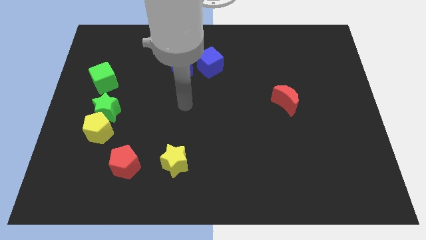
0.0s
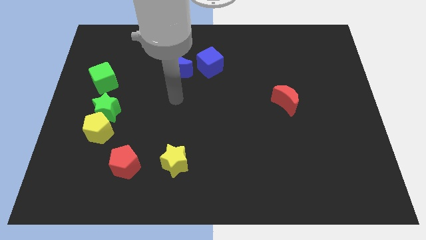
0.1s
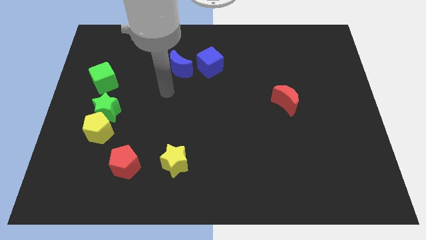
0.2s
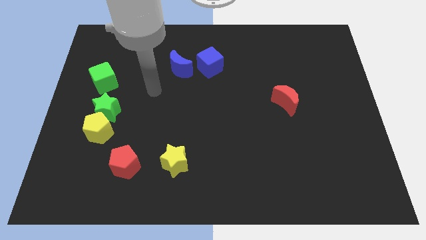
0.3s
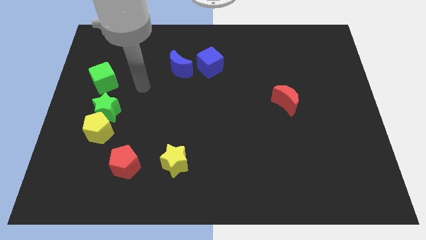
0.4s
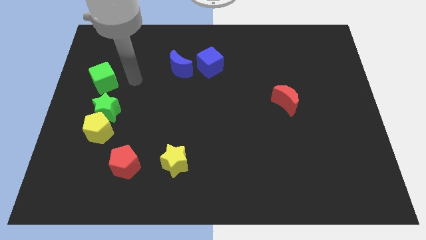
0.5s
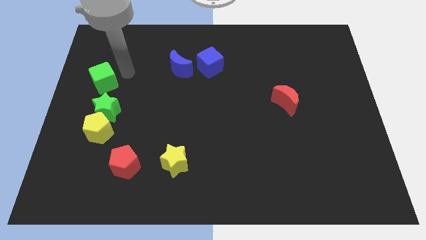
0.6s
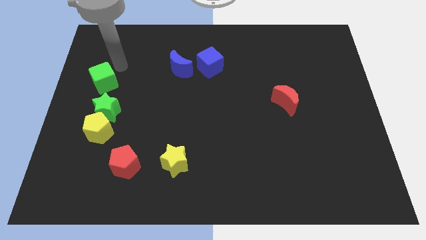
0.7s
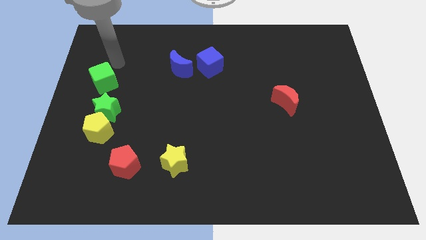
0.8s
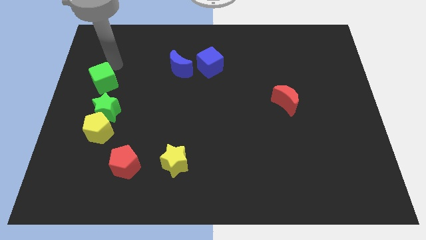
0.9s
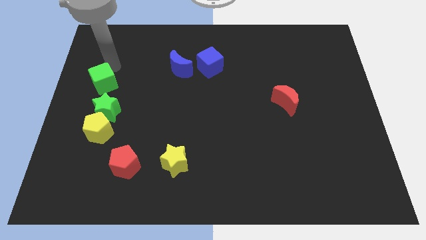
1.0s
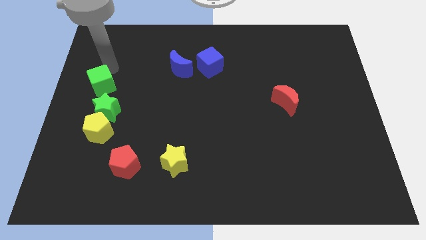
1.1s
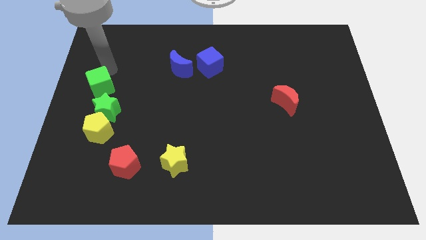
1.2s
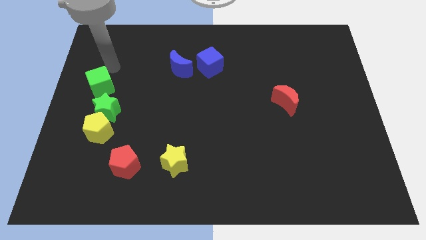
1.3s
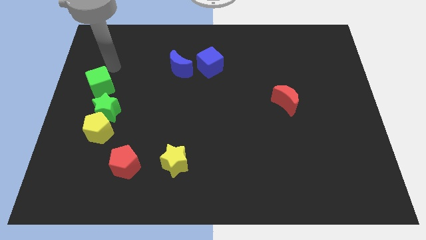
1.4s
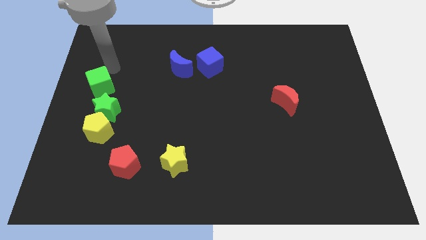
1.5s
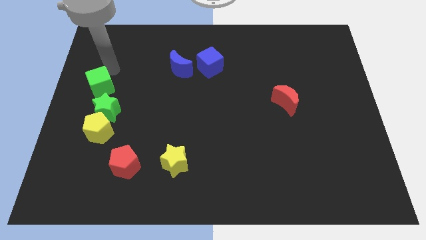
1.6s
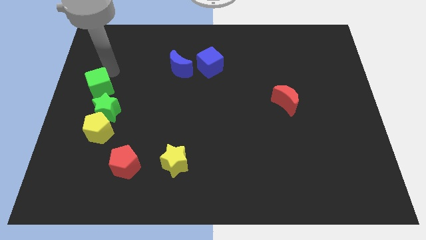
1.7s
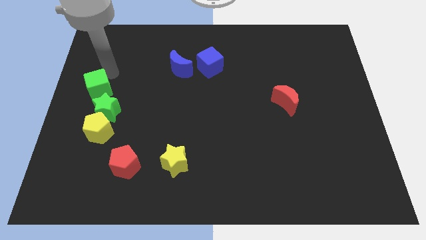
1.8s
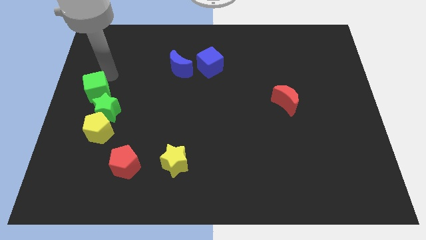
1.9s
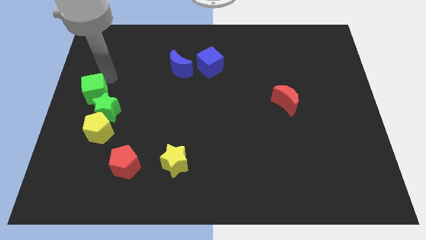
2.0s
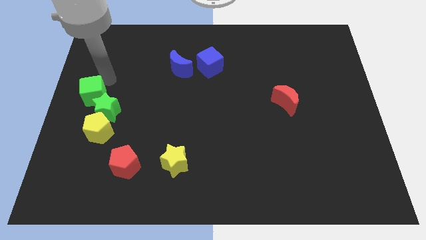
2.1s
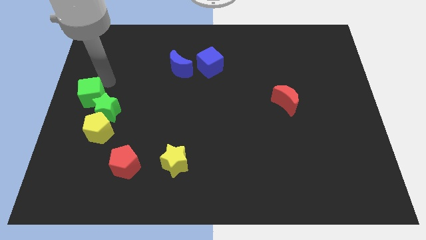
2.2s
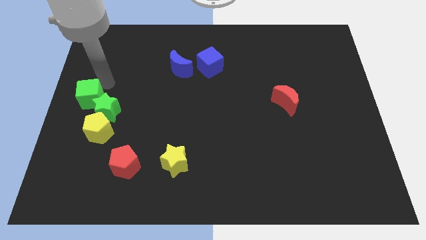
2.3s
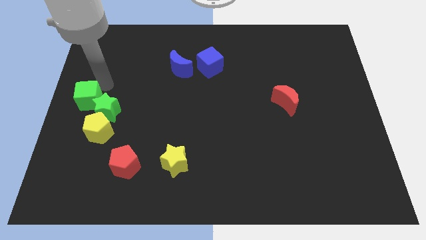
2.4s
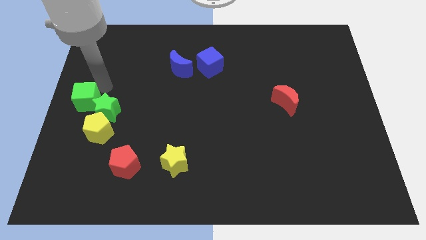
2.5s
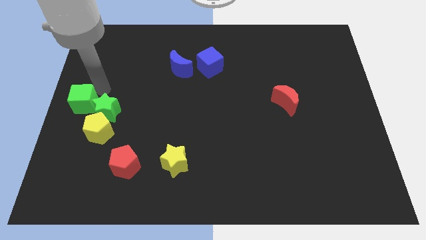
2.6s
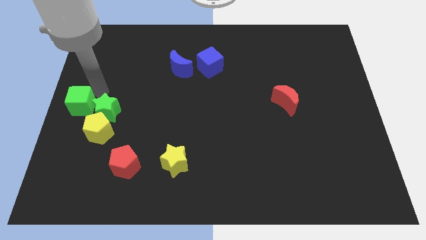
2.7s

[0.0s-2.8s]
slightly move the green cube down

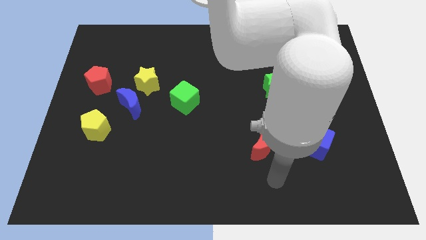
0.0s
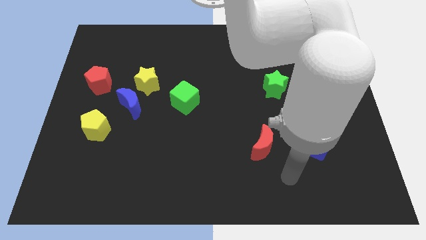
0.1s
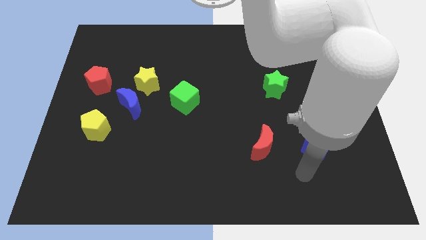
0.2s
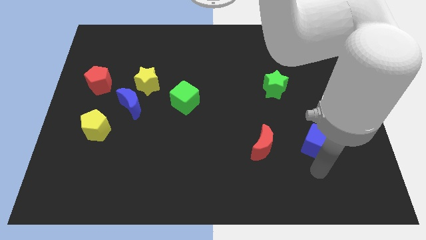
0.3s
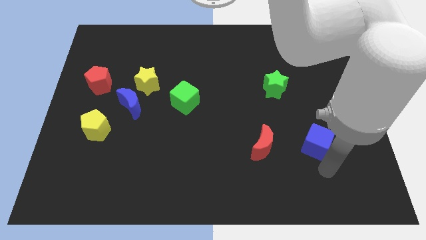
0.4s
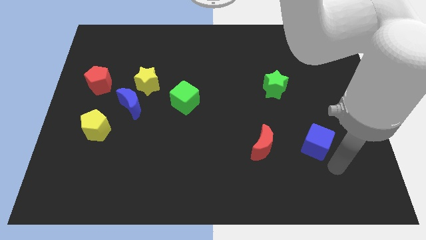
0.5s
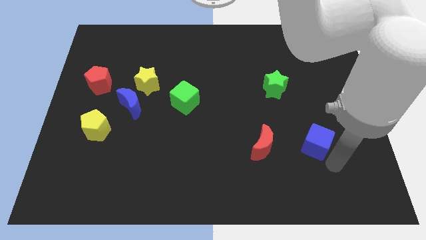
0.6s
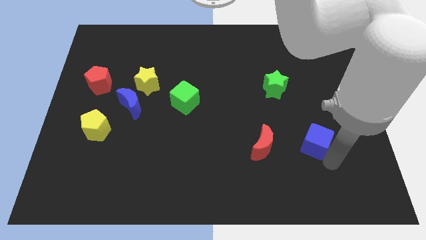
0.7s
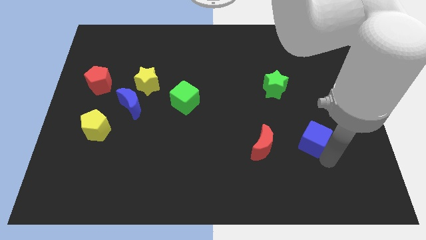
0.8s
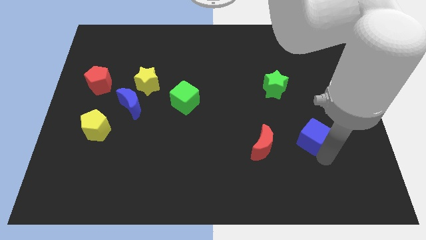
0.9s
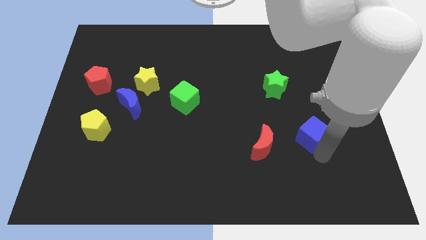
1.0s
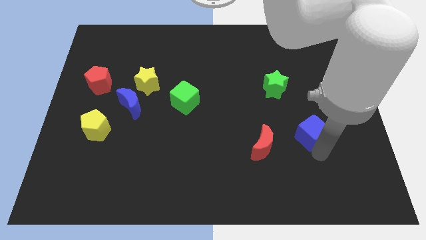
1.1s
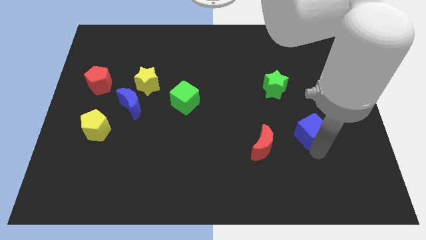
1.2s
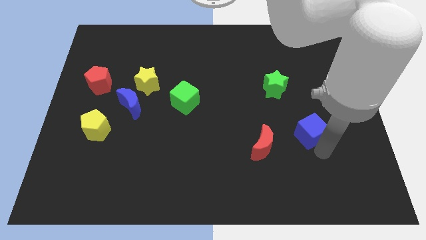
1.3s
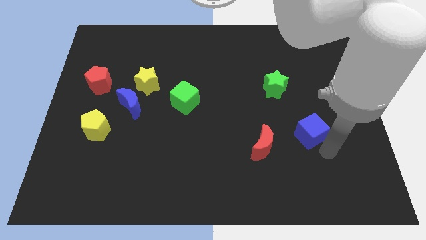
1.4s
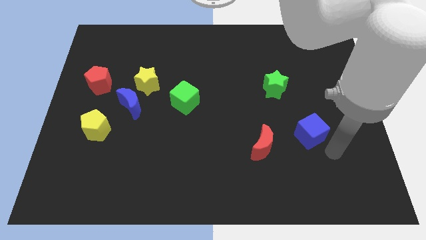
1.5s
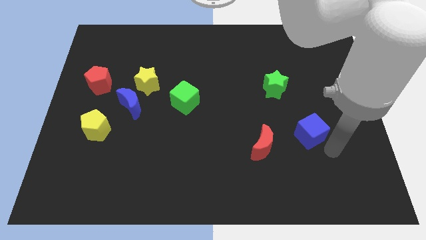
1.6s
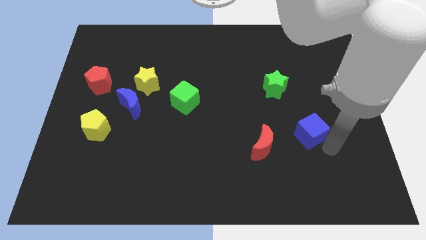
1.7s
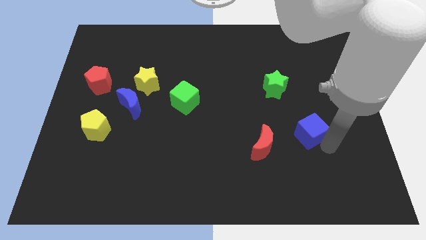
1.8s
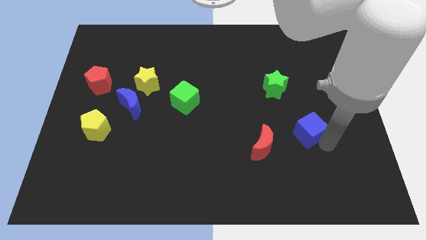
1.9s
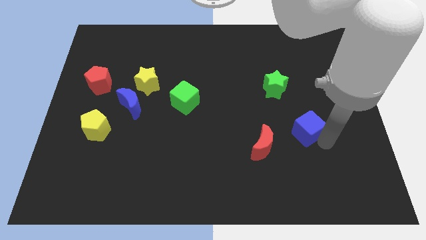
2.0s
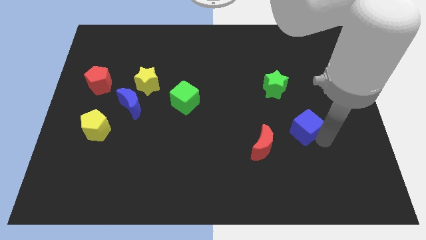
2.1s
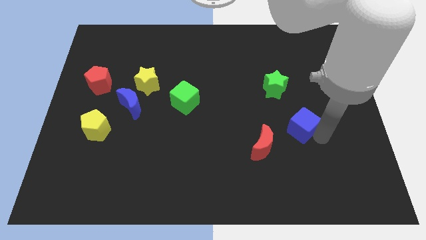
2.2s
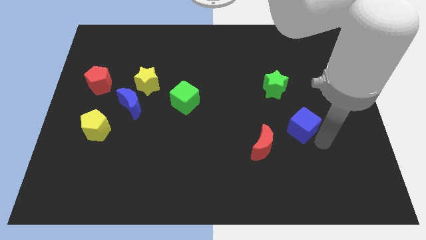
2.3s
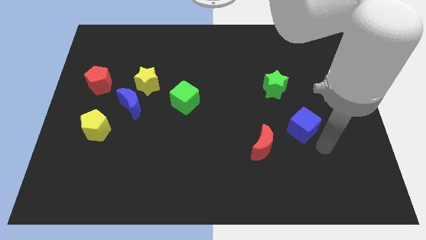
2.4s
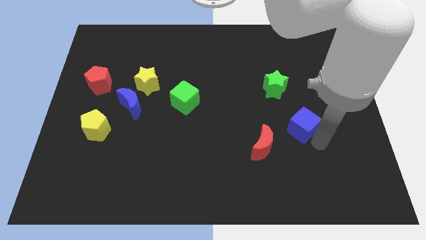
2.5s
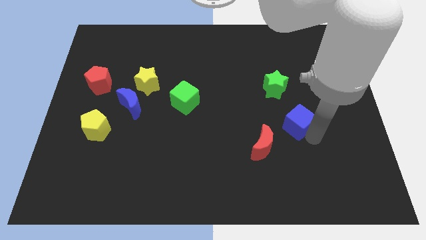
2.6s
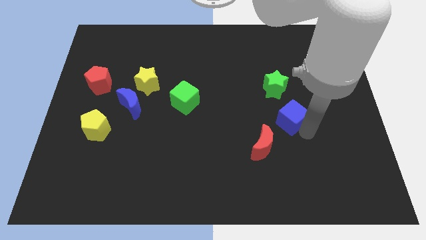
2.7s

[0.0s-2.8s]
slide the blue cube slightly up and then to the left

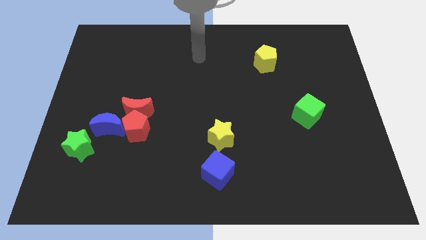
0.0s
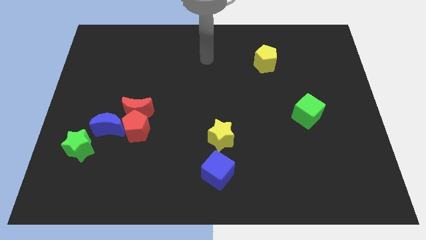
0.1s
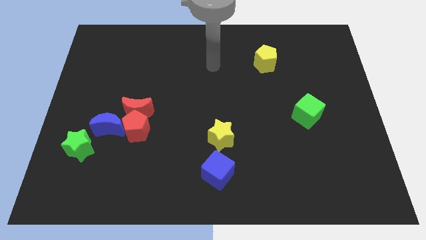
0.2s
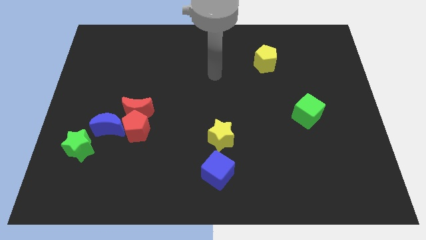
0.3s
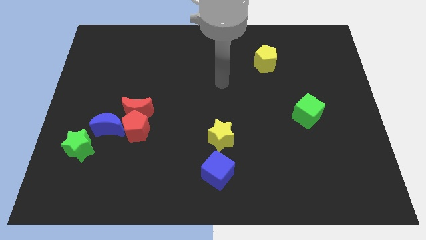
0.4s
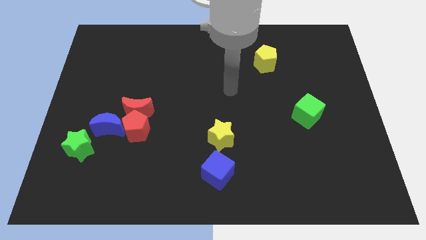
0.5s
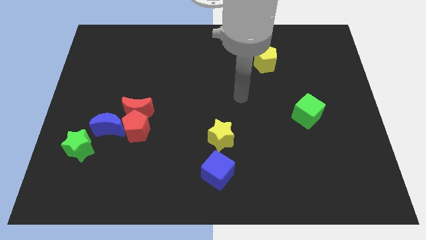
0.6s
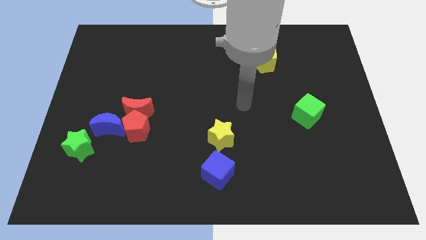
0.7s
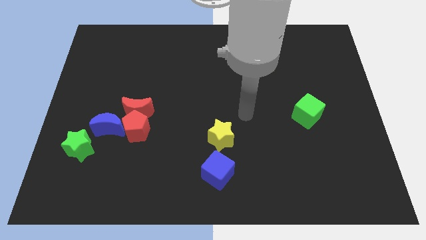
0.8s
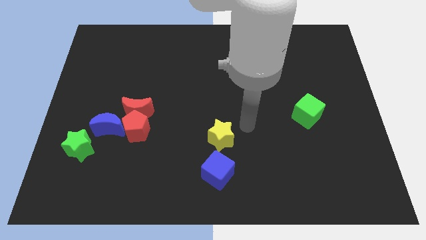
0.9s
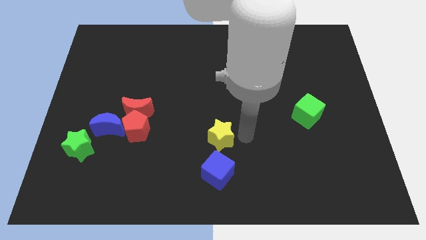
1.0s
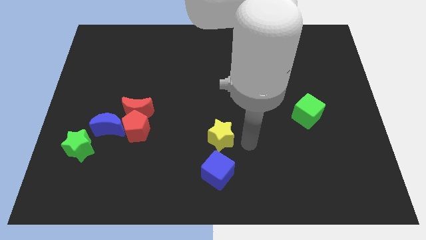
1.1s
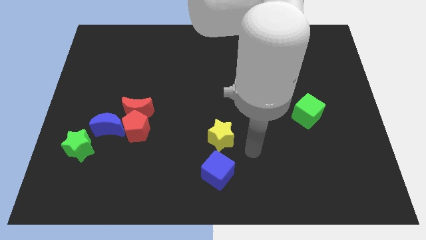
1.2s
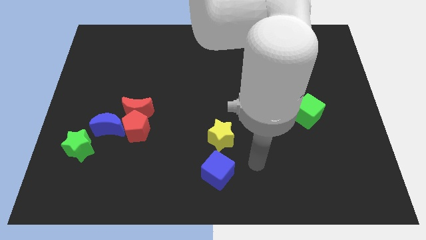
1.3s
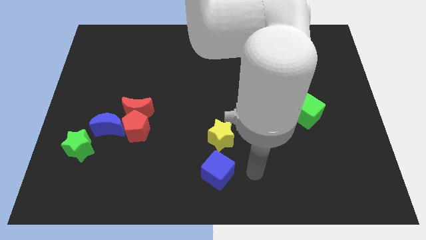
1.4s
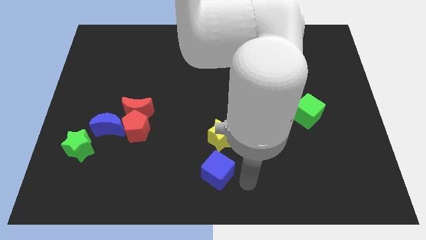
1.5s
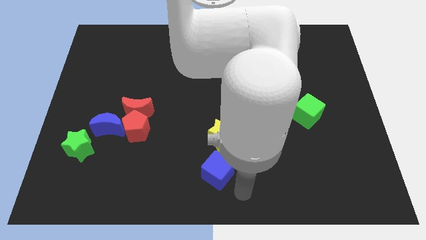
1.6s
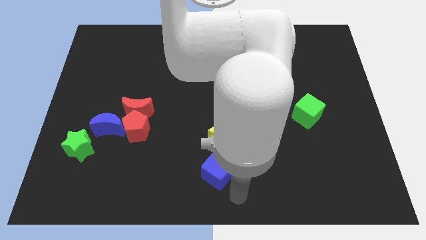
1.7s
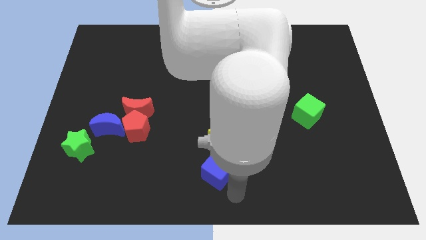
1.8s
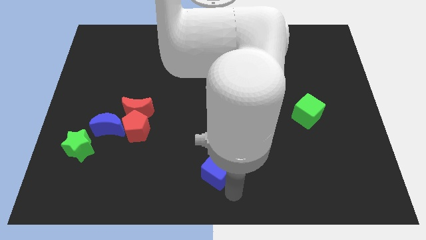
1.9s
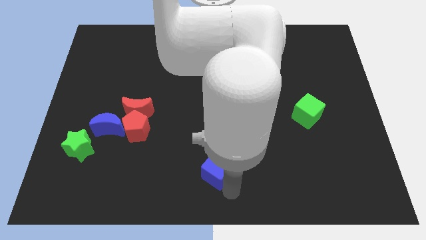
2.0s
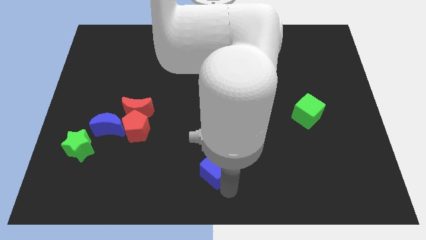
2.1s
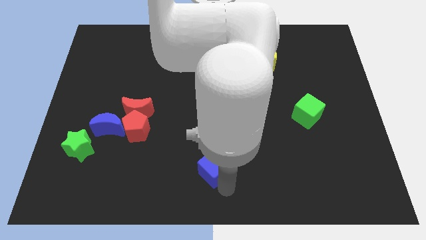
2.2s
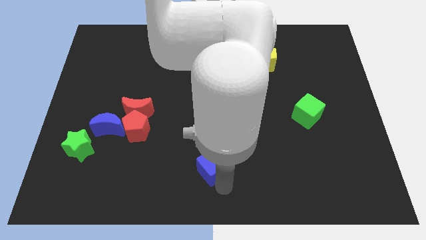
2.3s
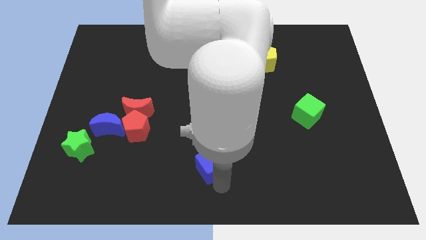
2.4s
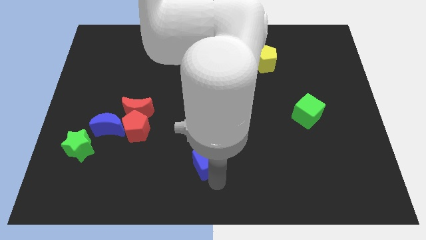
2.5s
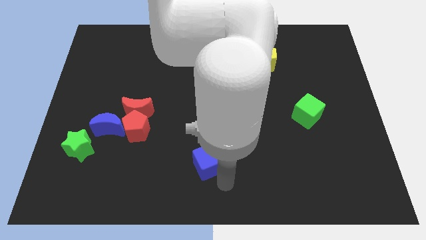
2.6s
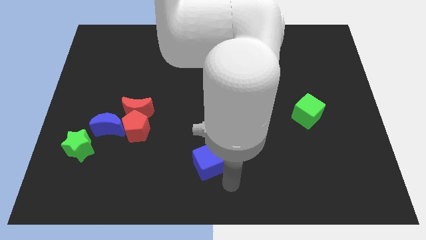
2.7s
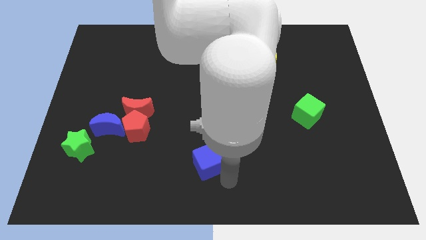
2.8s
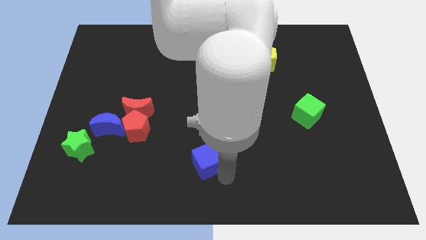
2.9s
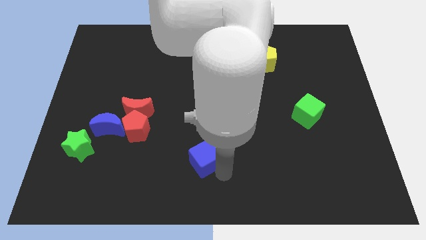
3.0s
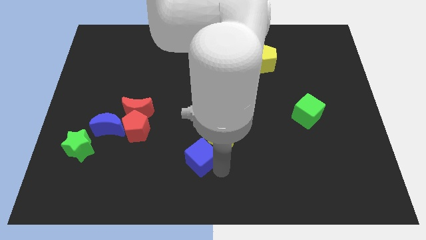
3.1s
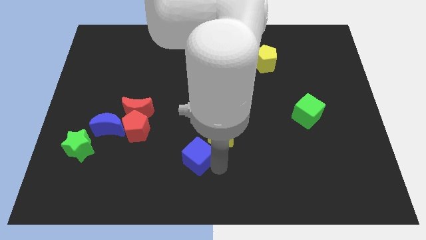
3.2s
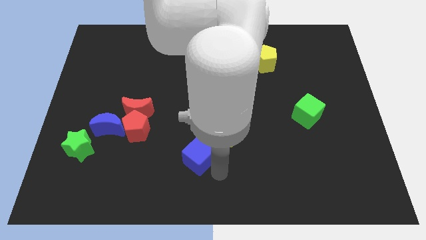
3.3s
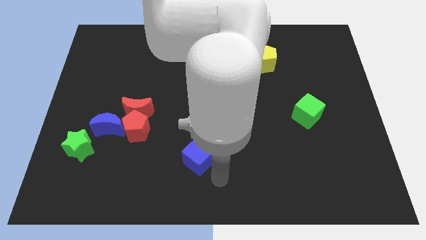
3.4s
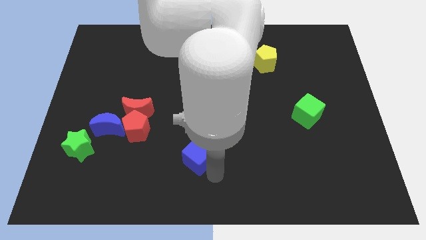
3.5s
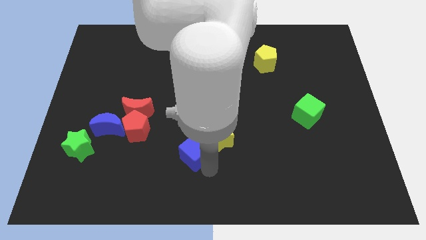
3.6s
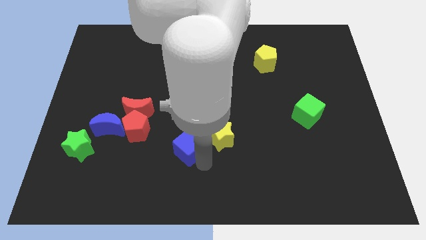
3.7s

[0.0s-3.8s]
slightly move the blue cube upwards and to the left
